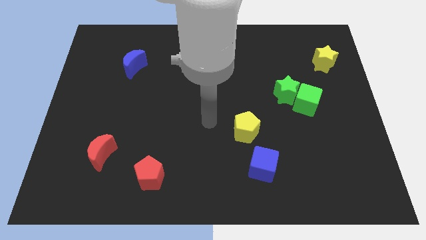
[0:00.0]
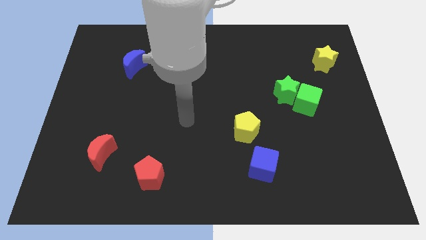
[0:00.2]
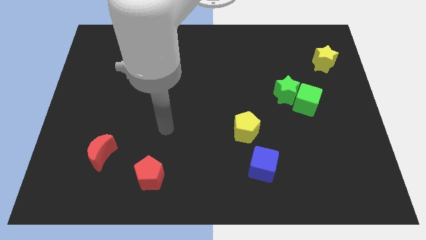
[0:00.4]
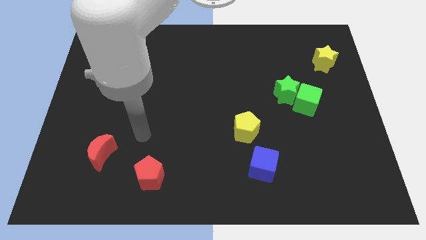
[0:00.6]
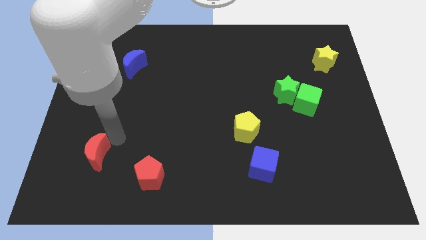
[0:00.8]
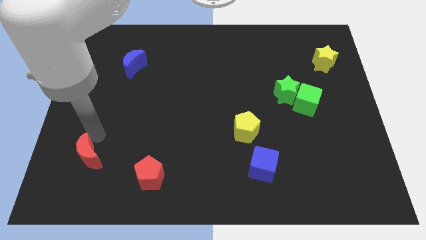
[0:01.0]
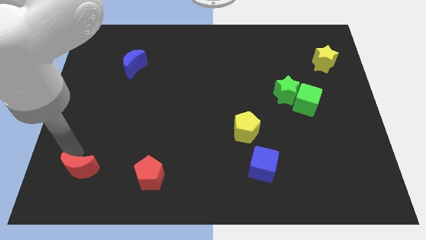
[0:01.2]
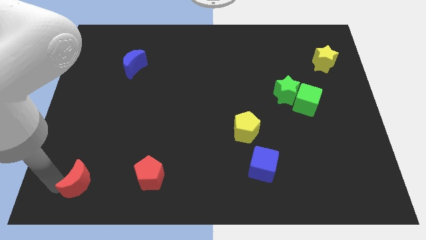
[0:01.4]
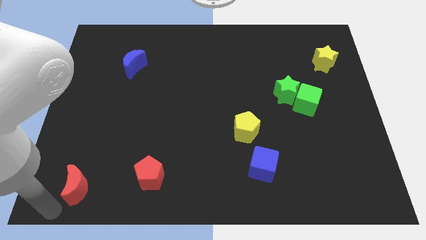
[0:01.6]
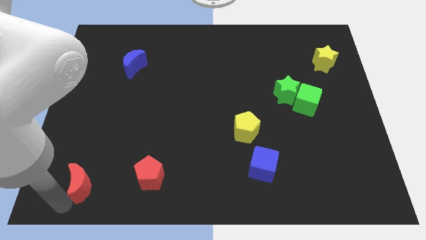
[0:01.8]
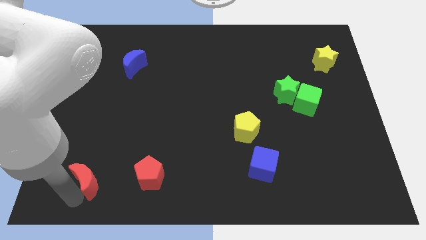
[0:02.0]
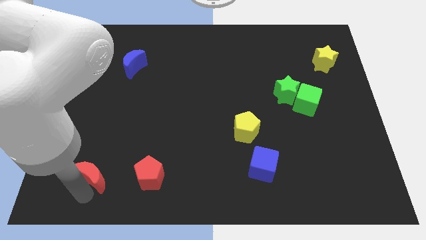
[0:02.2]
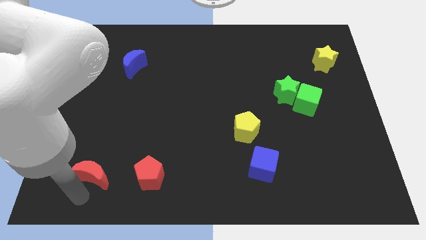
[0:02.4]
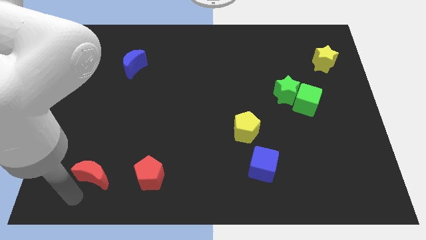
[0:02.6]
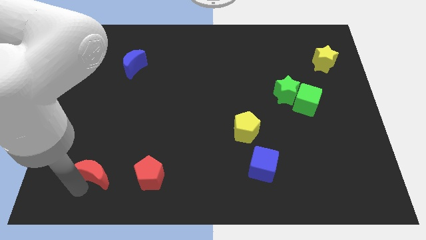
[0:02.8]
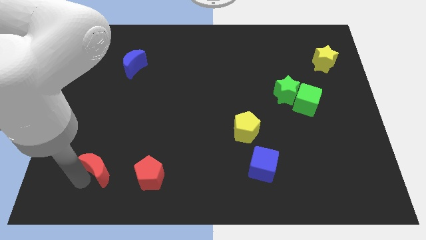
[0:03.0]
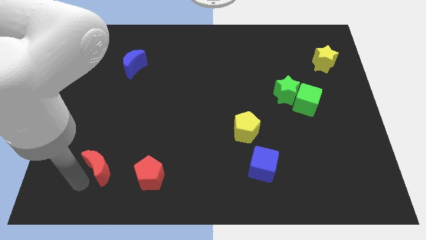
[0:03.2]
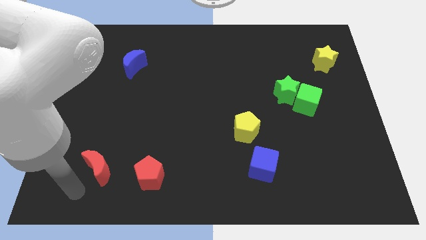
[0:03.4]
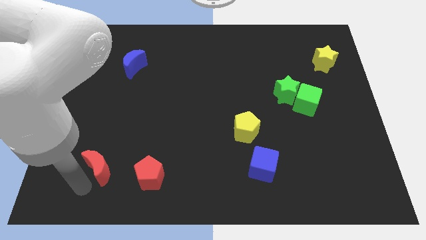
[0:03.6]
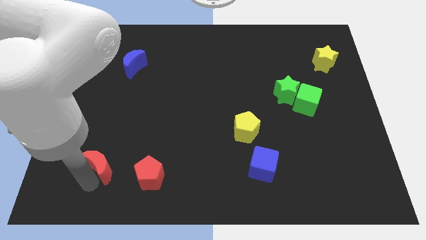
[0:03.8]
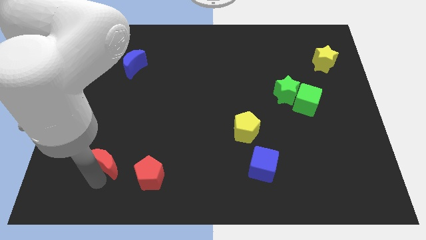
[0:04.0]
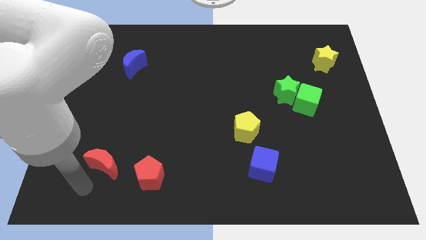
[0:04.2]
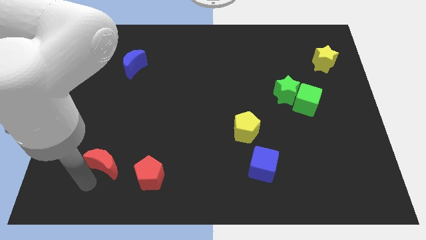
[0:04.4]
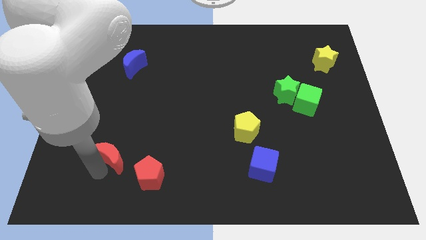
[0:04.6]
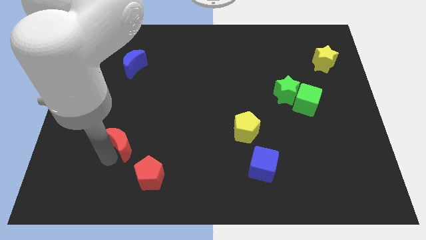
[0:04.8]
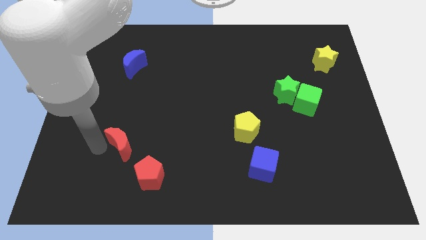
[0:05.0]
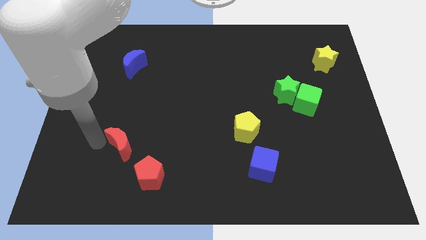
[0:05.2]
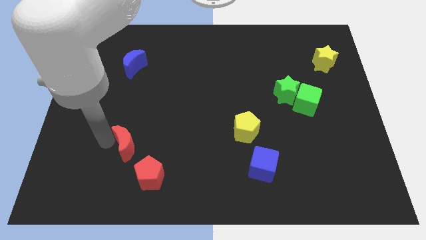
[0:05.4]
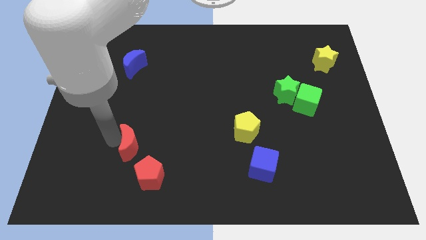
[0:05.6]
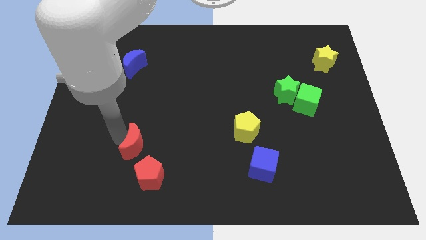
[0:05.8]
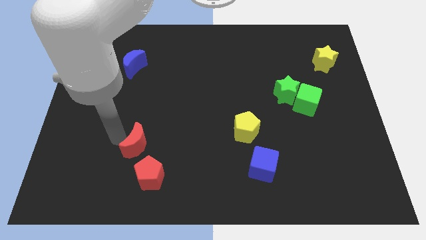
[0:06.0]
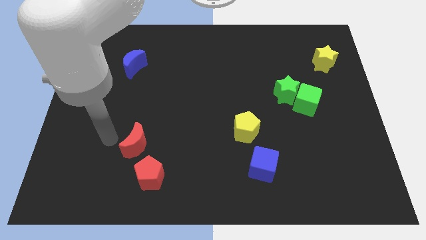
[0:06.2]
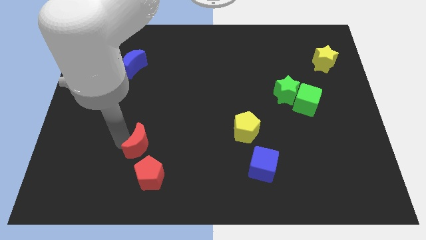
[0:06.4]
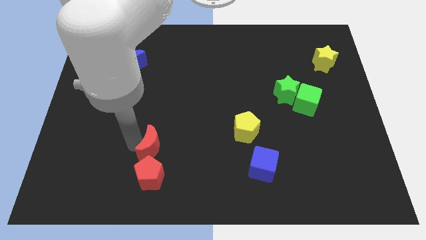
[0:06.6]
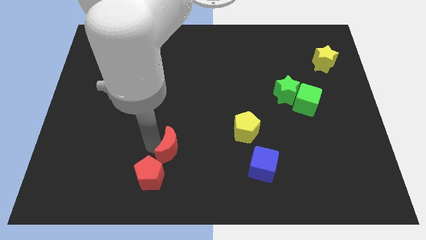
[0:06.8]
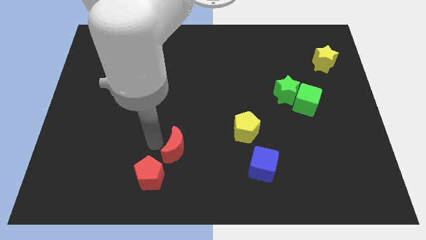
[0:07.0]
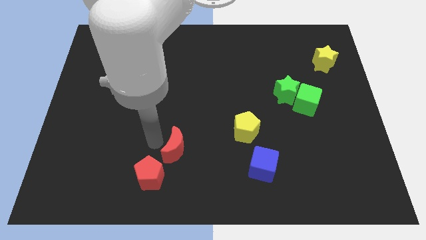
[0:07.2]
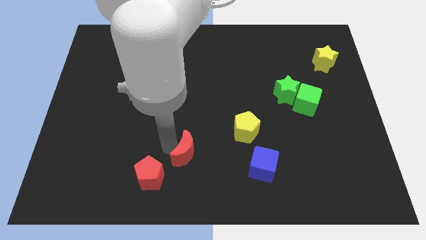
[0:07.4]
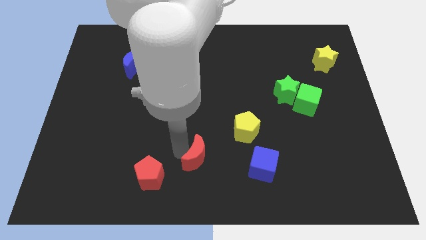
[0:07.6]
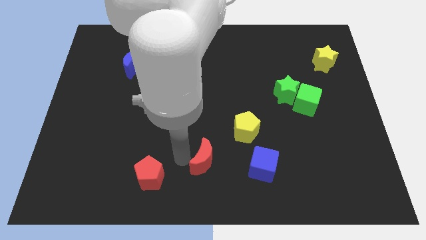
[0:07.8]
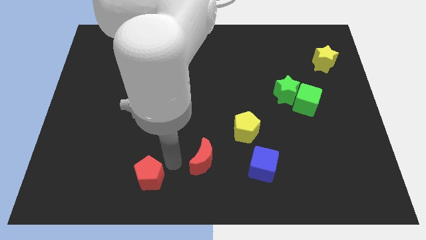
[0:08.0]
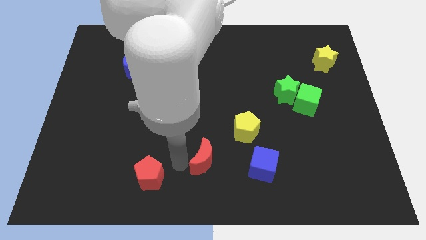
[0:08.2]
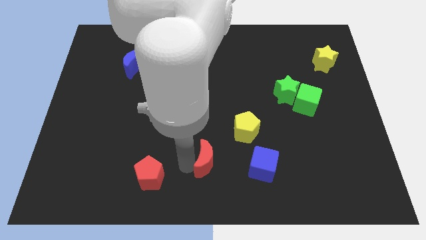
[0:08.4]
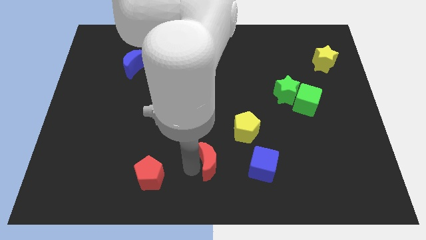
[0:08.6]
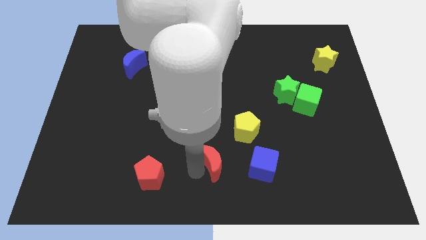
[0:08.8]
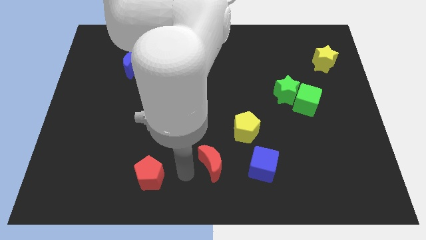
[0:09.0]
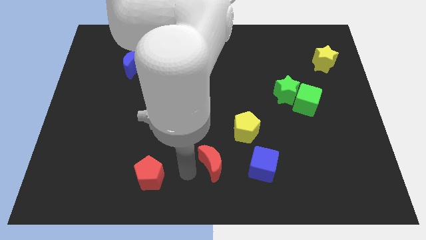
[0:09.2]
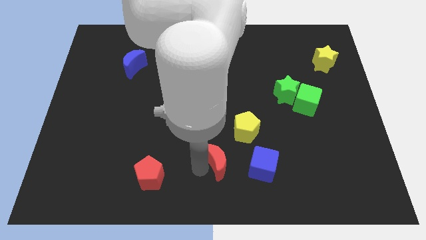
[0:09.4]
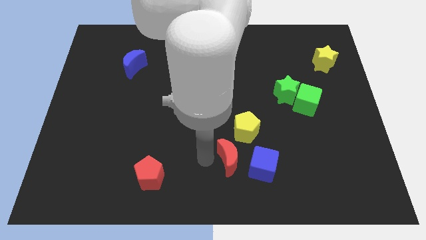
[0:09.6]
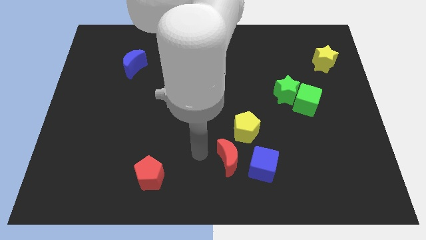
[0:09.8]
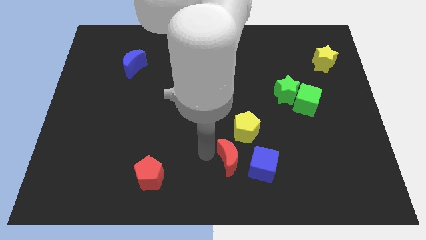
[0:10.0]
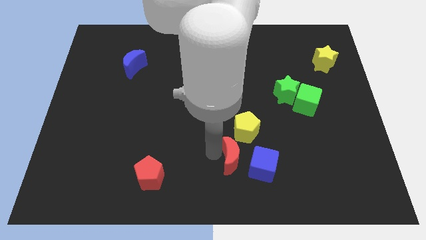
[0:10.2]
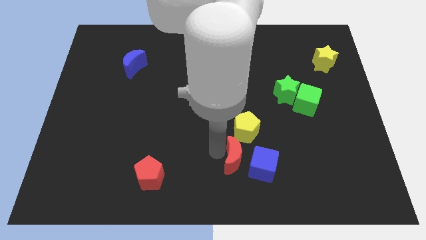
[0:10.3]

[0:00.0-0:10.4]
move the red moon next to the blue cube

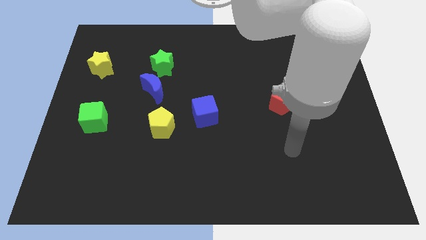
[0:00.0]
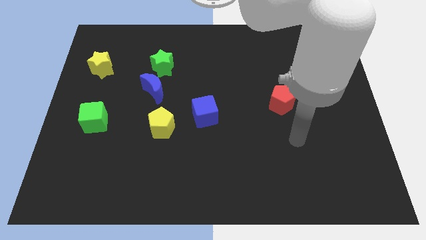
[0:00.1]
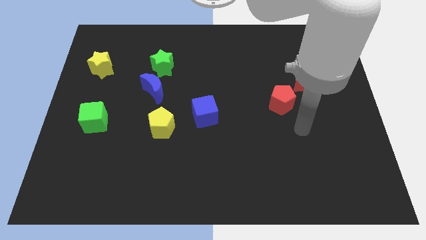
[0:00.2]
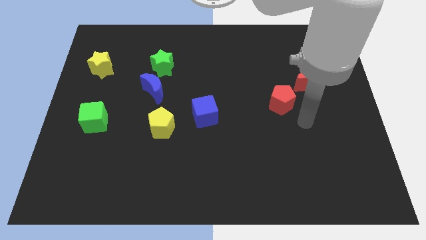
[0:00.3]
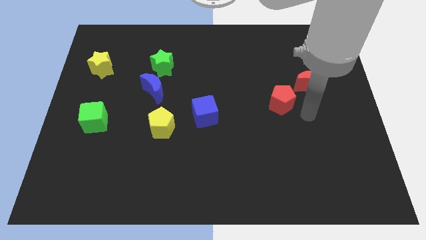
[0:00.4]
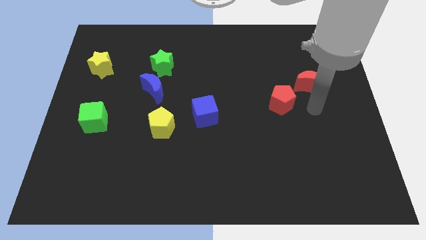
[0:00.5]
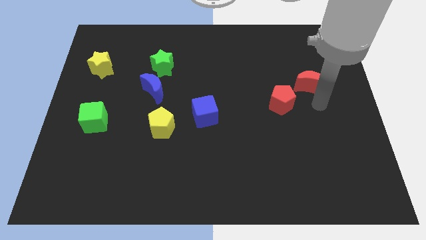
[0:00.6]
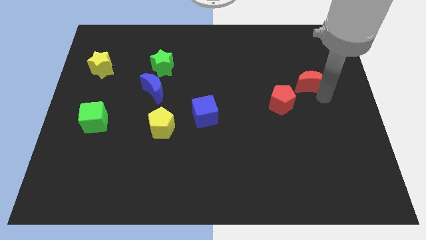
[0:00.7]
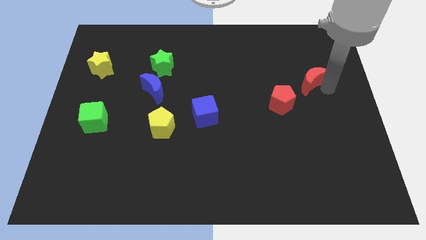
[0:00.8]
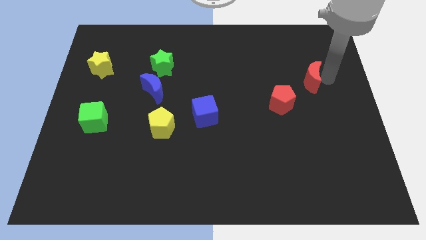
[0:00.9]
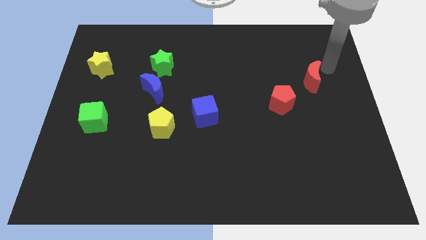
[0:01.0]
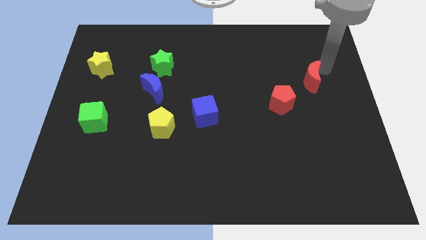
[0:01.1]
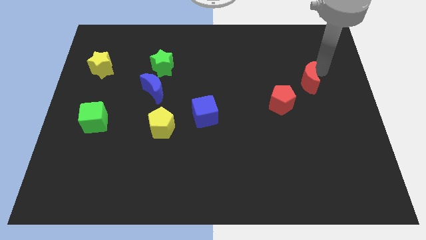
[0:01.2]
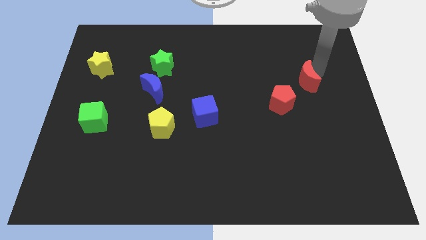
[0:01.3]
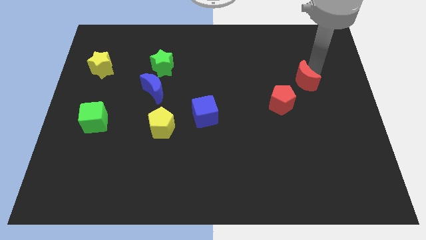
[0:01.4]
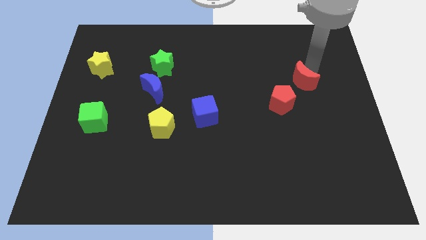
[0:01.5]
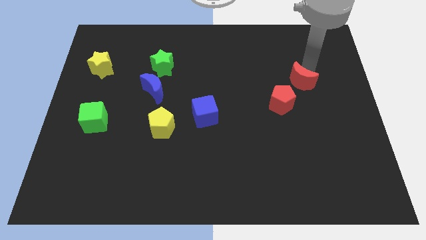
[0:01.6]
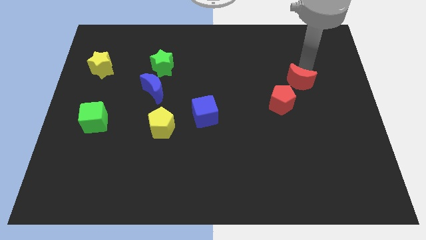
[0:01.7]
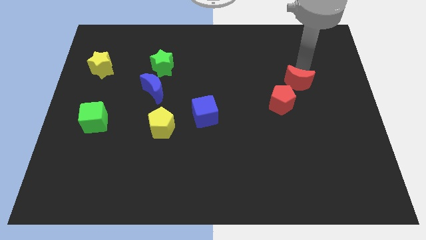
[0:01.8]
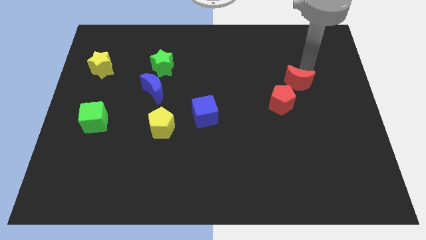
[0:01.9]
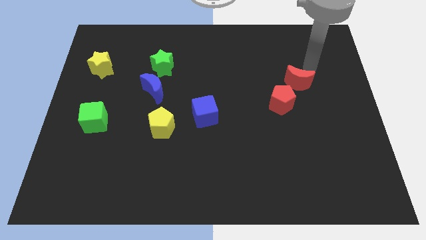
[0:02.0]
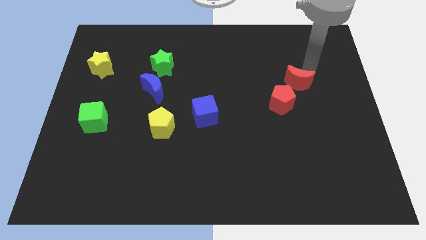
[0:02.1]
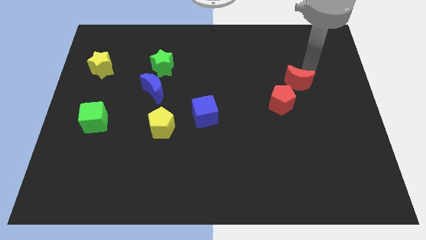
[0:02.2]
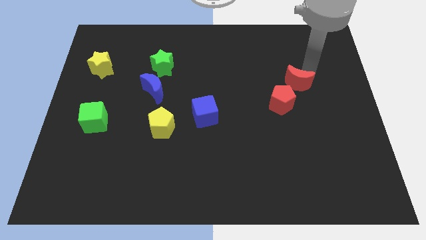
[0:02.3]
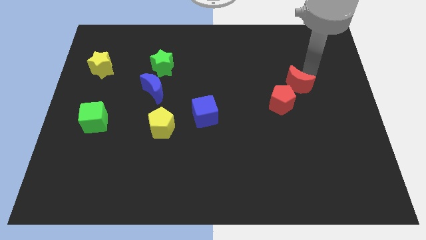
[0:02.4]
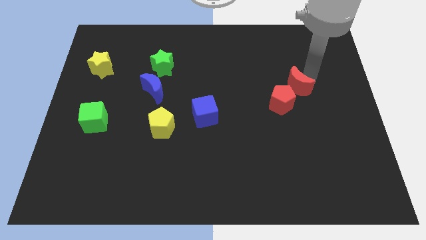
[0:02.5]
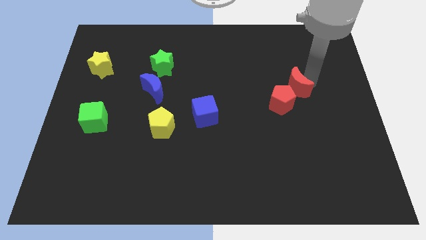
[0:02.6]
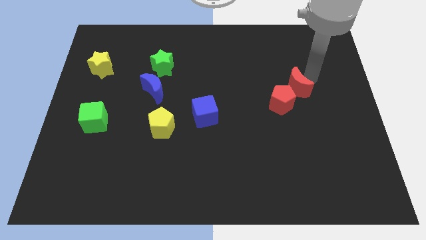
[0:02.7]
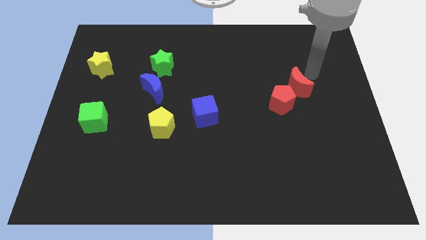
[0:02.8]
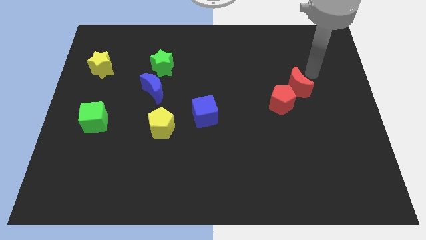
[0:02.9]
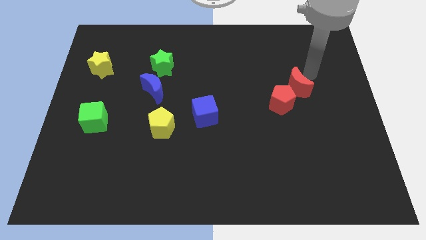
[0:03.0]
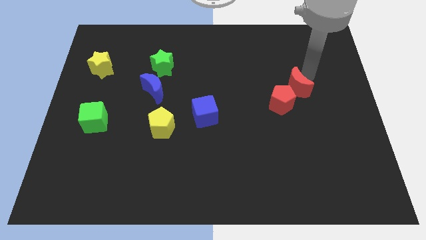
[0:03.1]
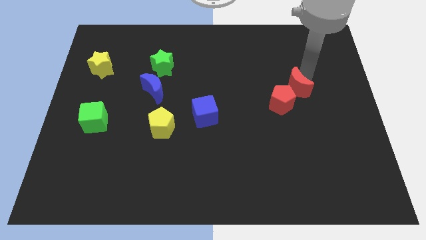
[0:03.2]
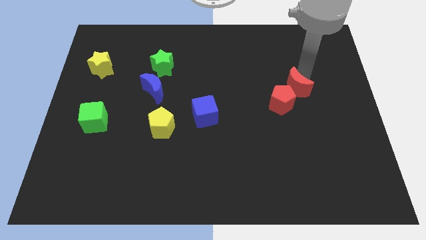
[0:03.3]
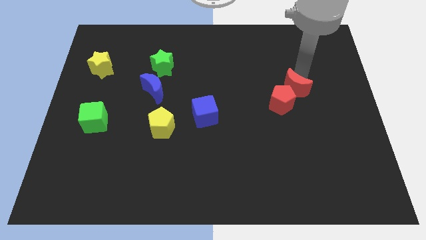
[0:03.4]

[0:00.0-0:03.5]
move the red moon close to the red pentagon
